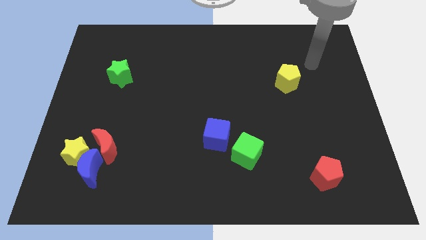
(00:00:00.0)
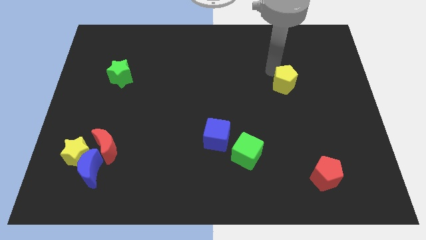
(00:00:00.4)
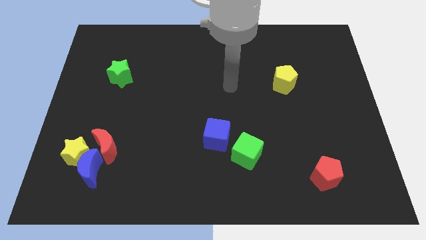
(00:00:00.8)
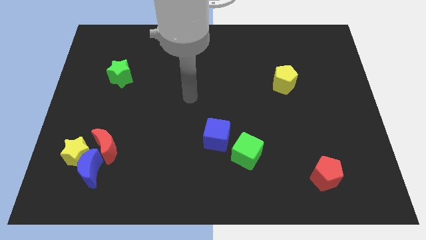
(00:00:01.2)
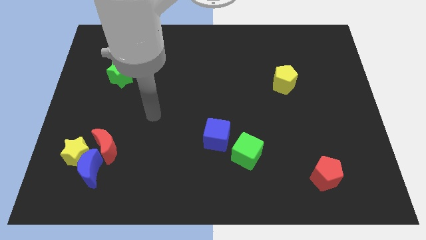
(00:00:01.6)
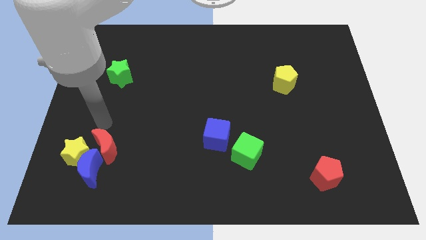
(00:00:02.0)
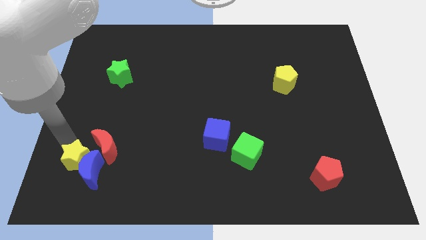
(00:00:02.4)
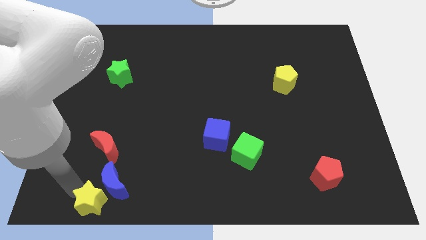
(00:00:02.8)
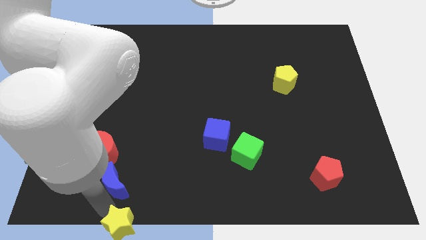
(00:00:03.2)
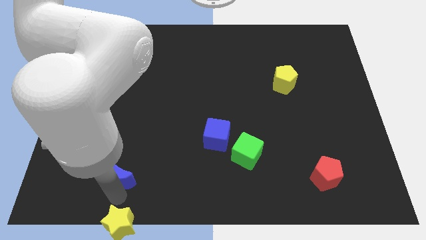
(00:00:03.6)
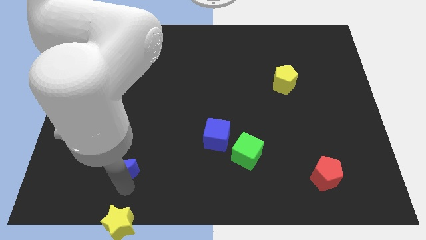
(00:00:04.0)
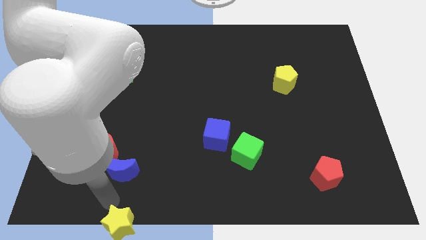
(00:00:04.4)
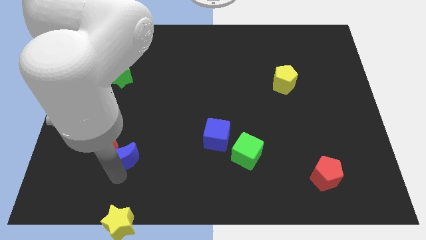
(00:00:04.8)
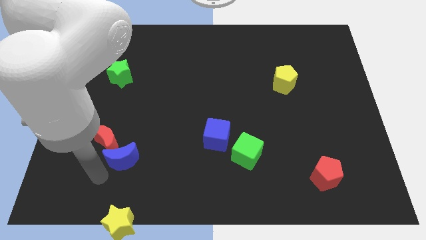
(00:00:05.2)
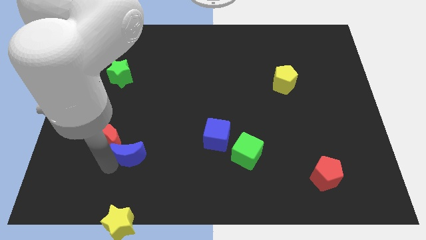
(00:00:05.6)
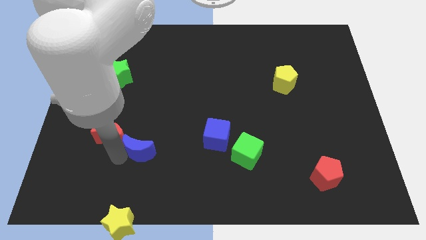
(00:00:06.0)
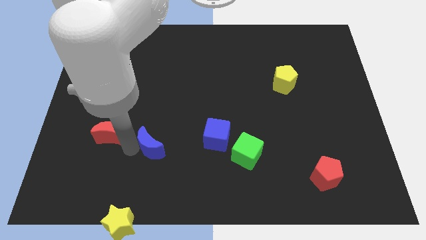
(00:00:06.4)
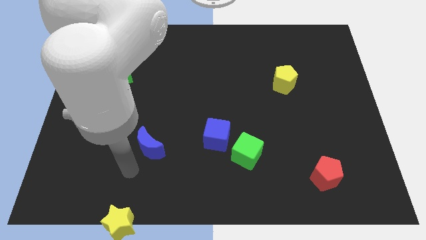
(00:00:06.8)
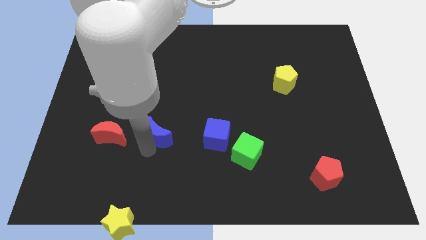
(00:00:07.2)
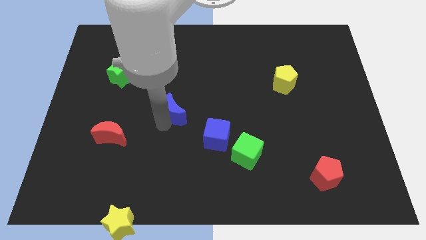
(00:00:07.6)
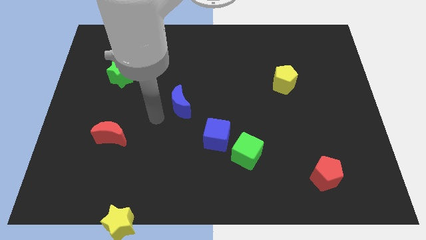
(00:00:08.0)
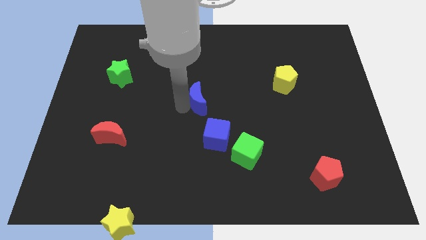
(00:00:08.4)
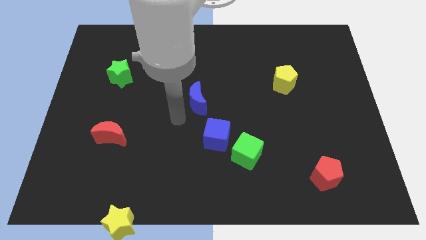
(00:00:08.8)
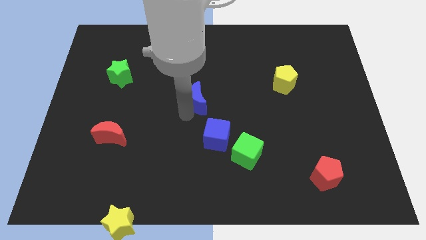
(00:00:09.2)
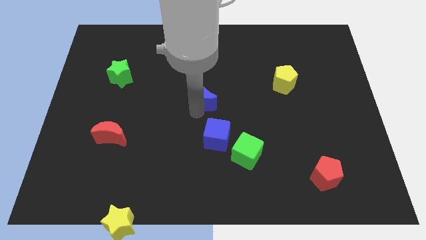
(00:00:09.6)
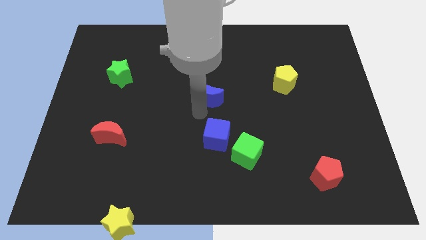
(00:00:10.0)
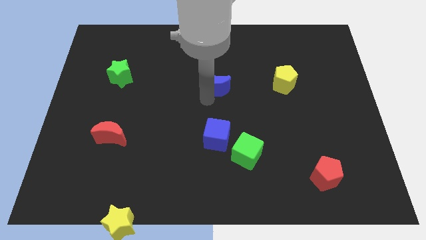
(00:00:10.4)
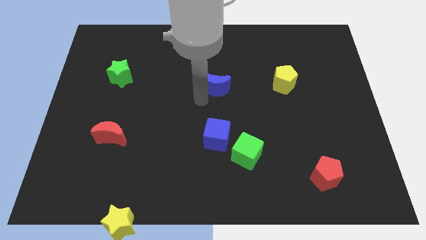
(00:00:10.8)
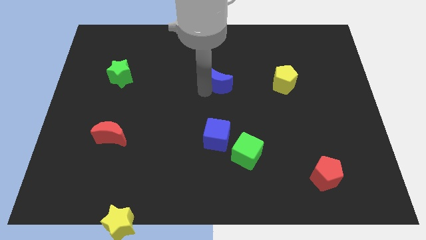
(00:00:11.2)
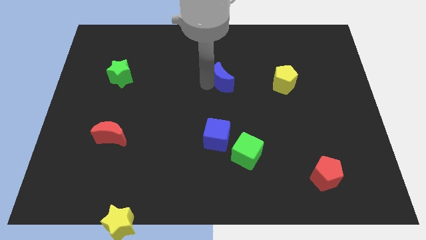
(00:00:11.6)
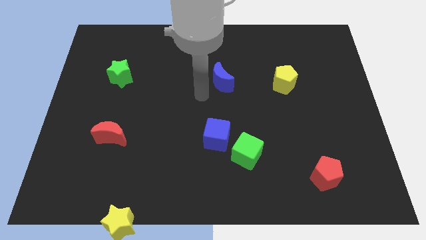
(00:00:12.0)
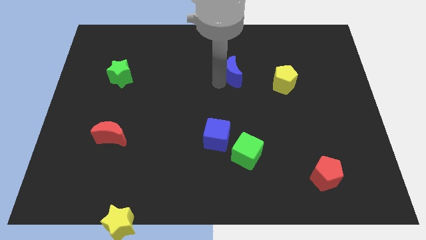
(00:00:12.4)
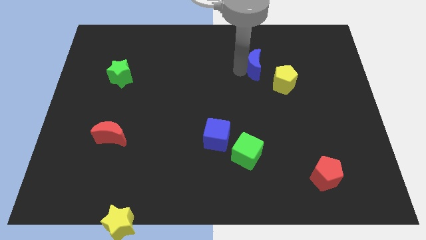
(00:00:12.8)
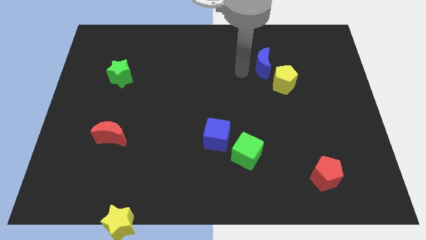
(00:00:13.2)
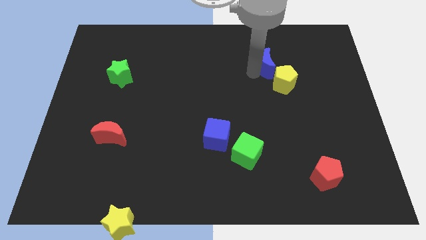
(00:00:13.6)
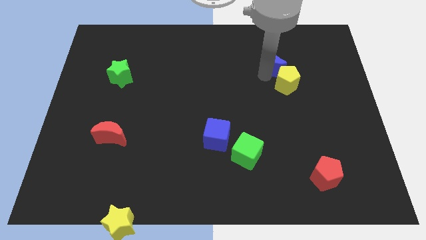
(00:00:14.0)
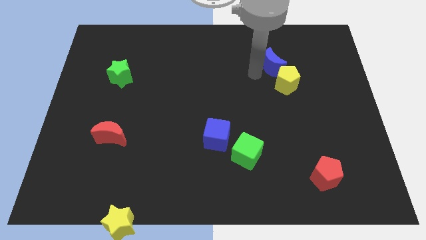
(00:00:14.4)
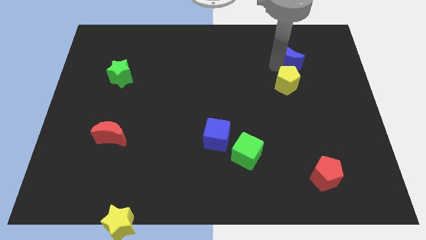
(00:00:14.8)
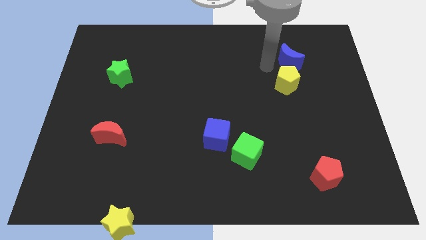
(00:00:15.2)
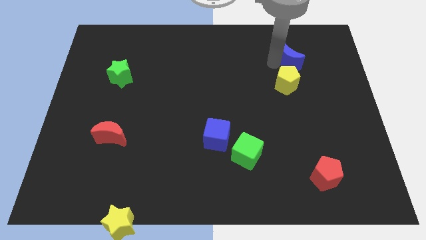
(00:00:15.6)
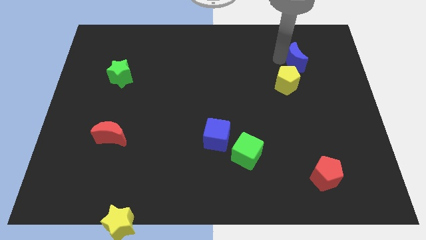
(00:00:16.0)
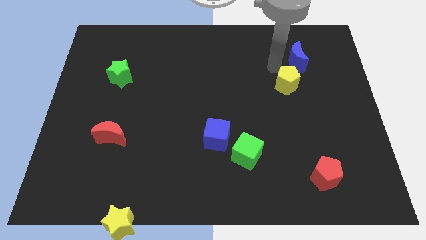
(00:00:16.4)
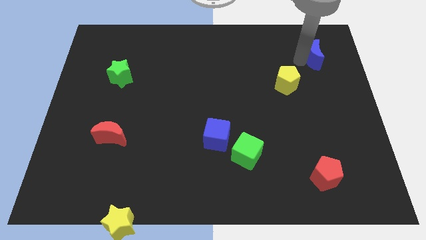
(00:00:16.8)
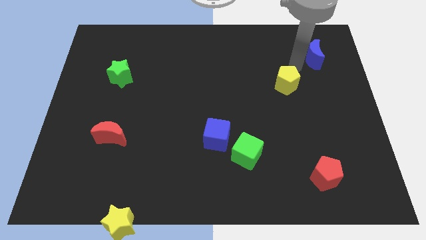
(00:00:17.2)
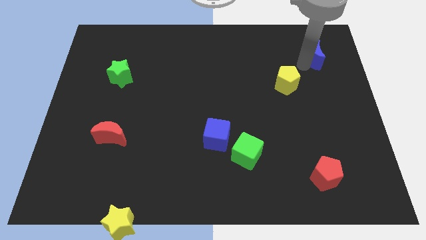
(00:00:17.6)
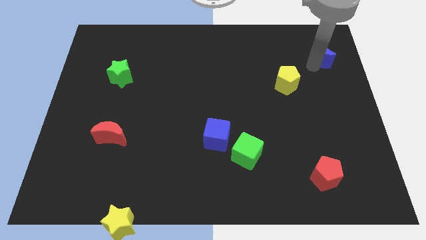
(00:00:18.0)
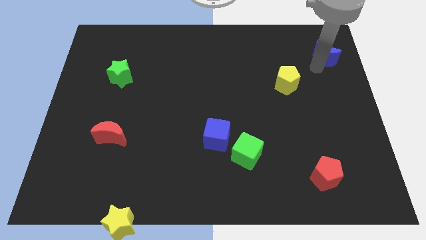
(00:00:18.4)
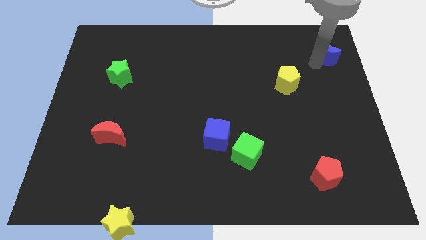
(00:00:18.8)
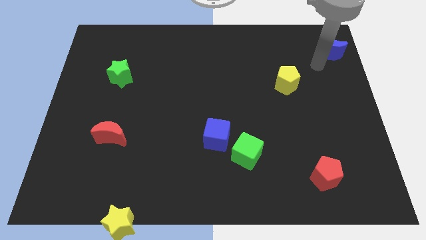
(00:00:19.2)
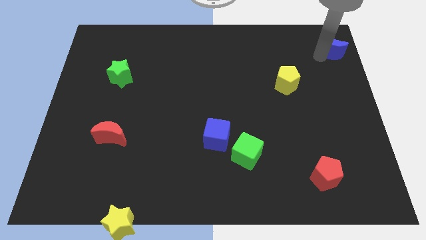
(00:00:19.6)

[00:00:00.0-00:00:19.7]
put the blue moon to the top right of the board

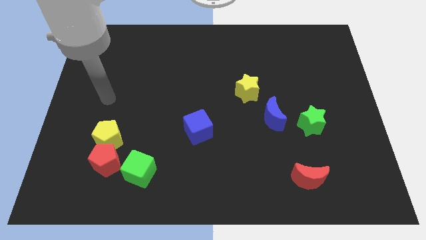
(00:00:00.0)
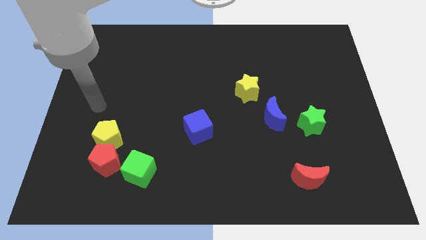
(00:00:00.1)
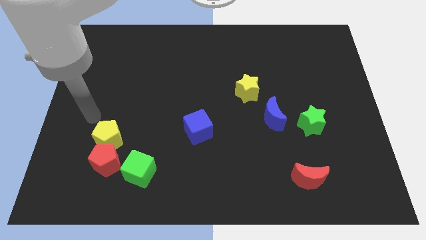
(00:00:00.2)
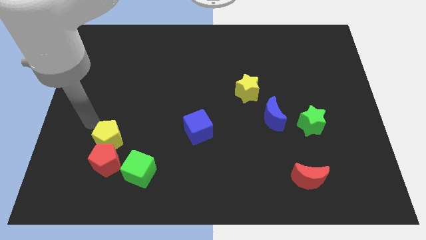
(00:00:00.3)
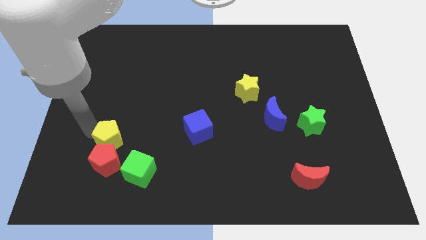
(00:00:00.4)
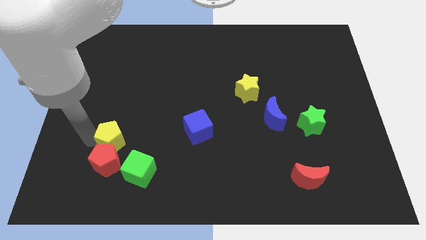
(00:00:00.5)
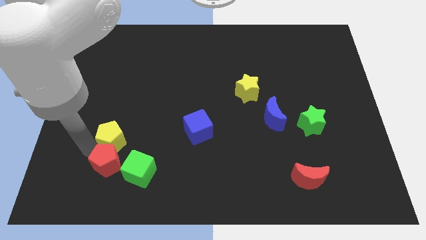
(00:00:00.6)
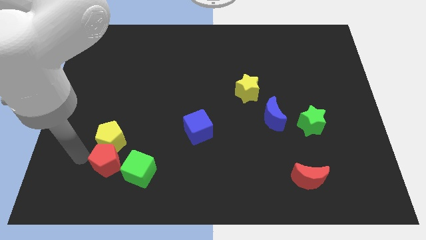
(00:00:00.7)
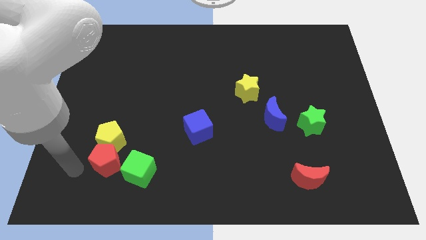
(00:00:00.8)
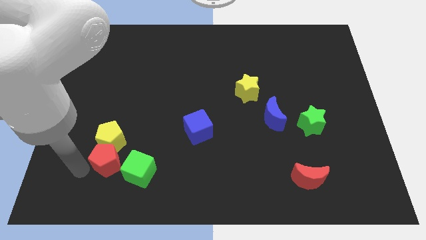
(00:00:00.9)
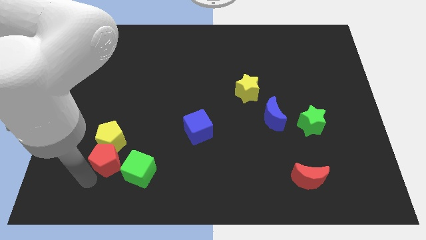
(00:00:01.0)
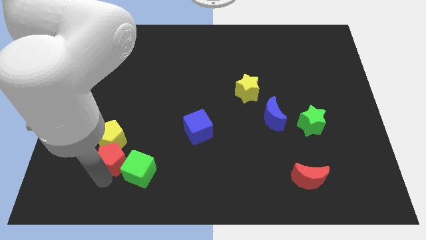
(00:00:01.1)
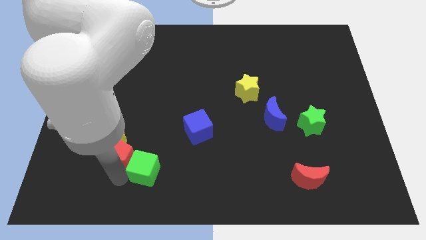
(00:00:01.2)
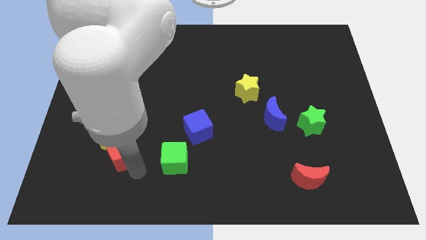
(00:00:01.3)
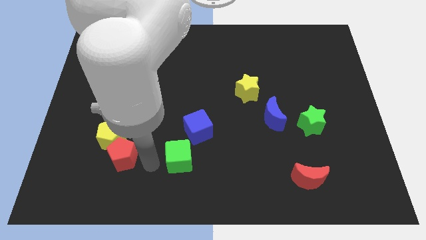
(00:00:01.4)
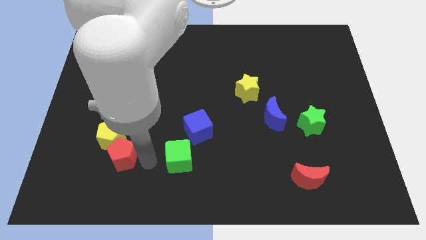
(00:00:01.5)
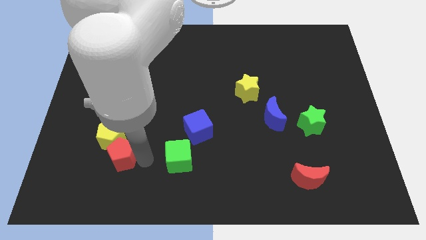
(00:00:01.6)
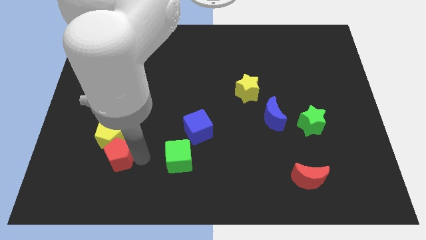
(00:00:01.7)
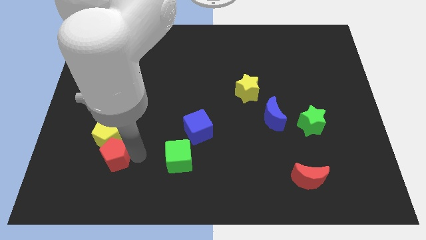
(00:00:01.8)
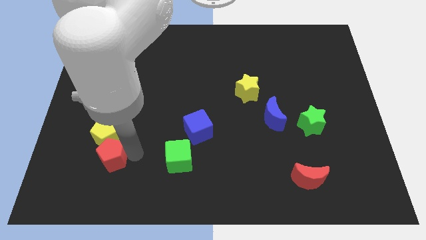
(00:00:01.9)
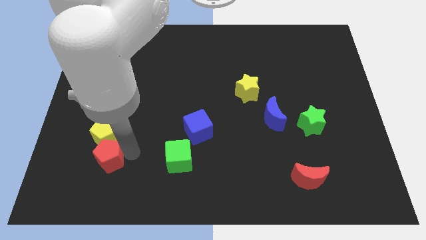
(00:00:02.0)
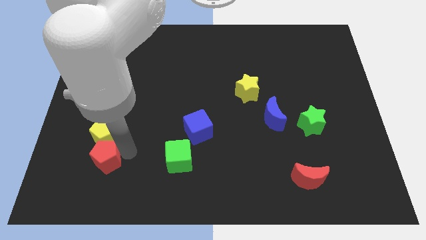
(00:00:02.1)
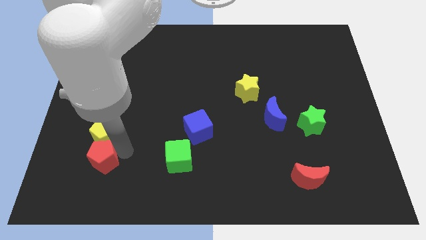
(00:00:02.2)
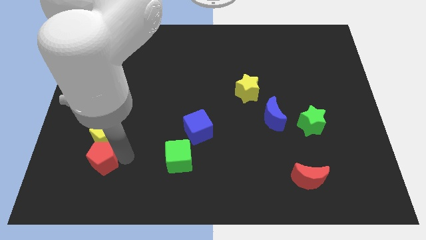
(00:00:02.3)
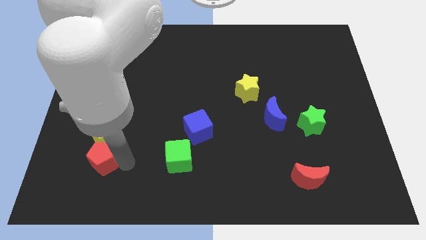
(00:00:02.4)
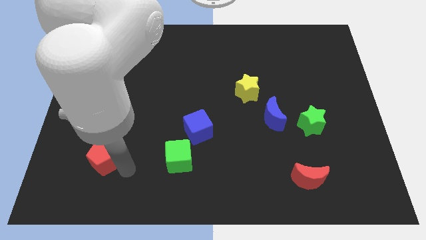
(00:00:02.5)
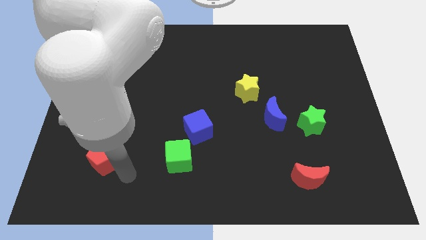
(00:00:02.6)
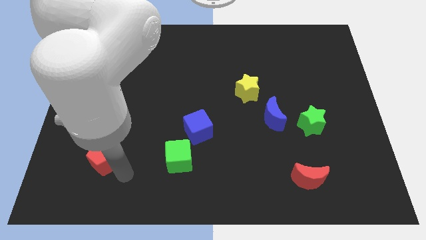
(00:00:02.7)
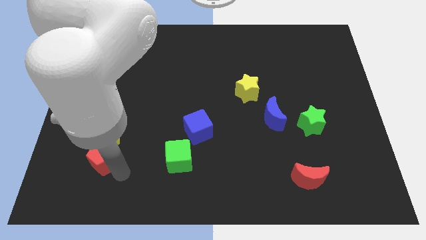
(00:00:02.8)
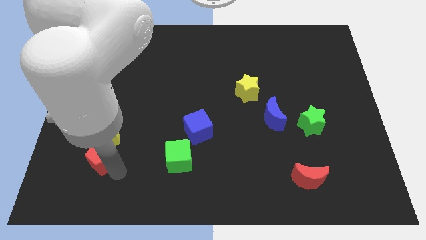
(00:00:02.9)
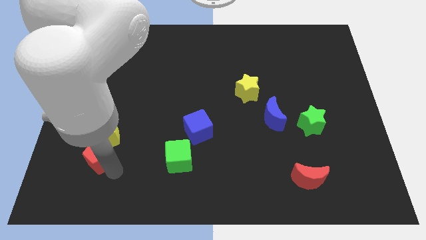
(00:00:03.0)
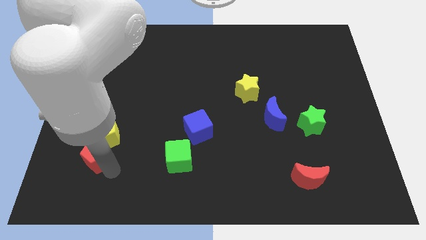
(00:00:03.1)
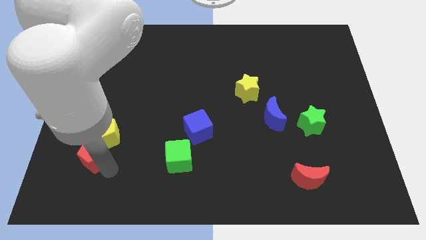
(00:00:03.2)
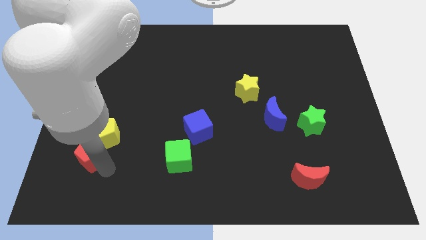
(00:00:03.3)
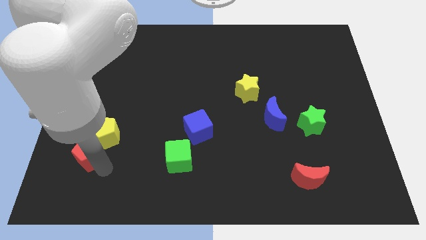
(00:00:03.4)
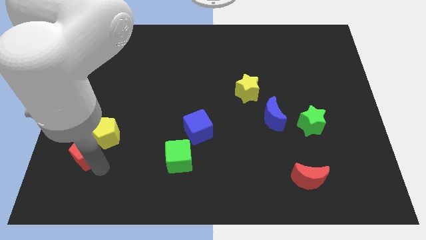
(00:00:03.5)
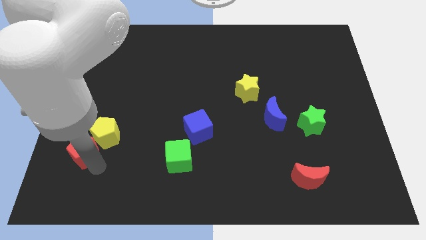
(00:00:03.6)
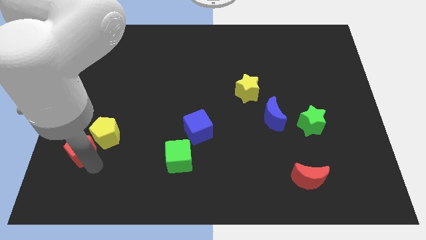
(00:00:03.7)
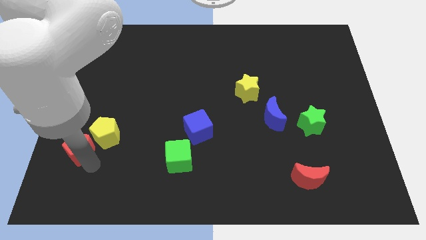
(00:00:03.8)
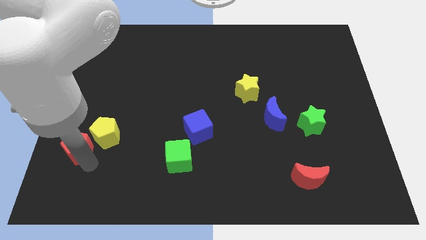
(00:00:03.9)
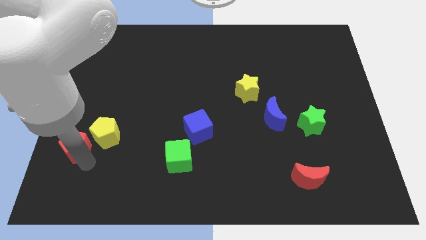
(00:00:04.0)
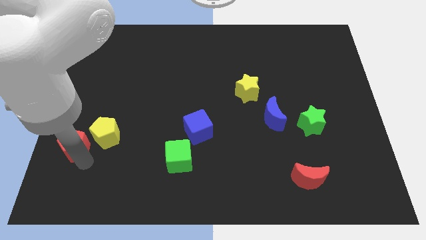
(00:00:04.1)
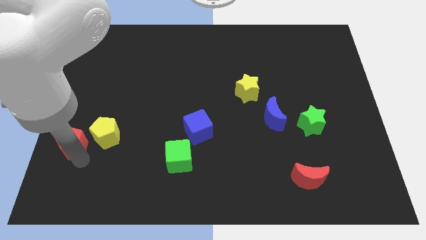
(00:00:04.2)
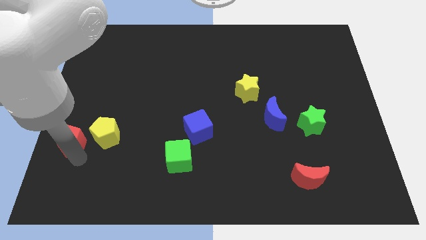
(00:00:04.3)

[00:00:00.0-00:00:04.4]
move the red pentagon to the center left
